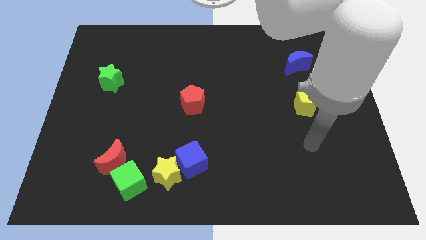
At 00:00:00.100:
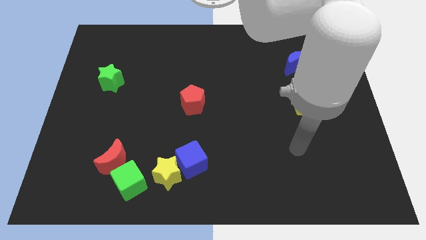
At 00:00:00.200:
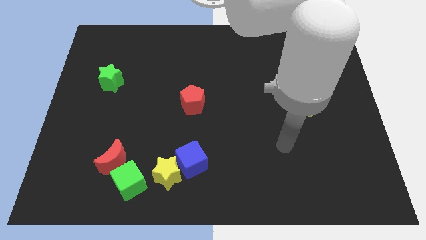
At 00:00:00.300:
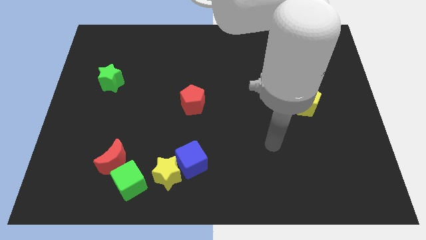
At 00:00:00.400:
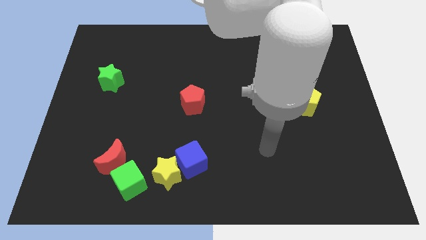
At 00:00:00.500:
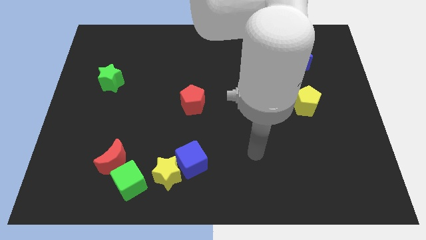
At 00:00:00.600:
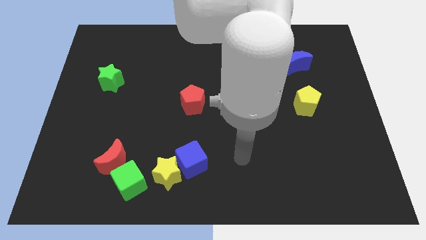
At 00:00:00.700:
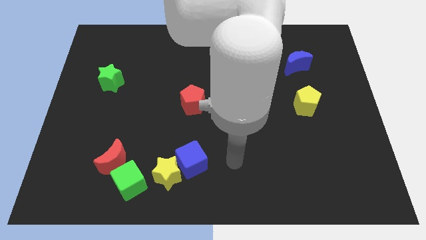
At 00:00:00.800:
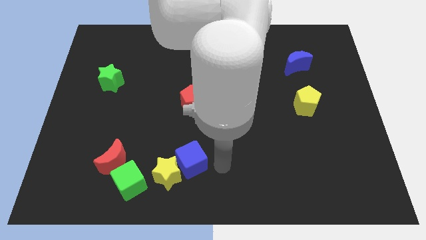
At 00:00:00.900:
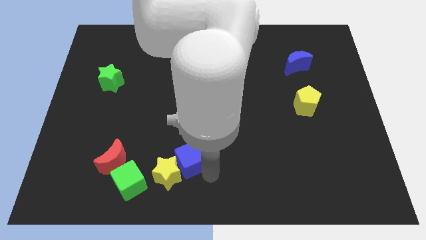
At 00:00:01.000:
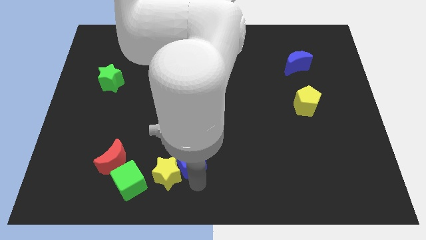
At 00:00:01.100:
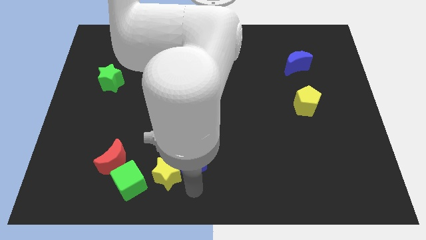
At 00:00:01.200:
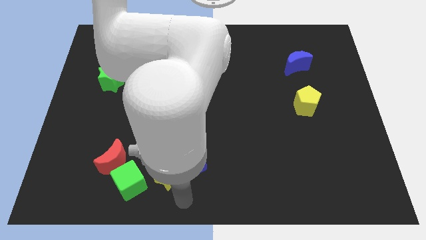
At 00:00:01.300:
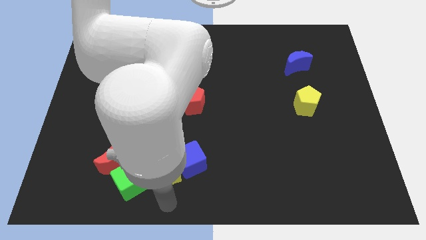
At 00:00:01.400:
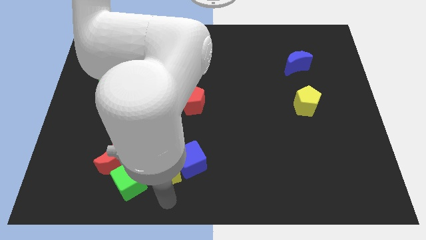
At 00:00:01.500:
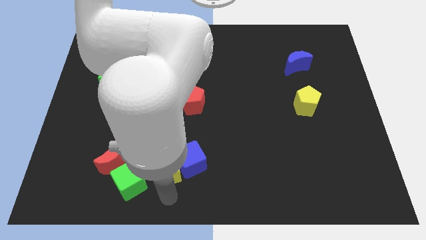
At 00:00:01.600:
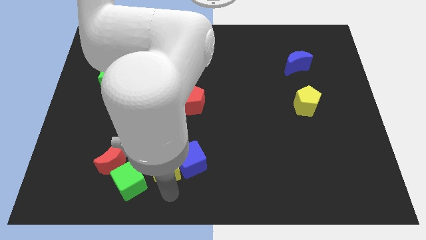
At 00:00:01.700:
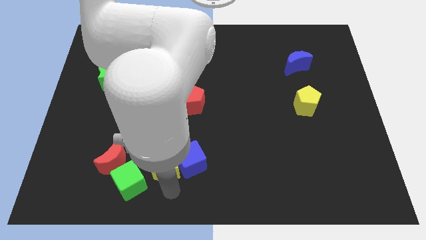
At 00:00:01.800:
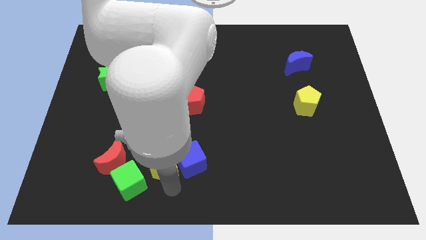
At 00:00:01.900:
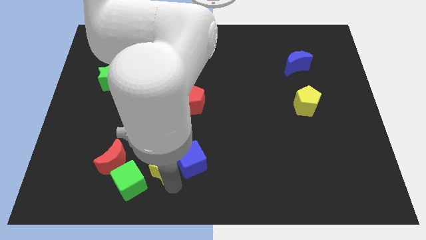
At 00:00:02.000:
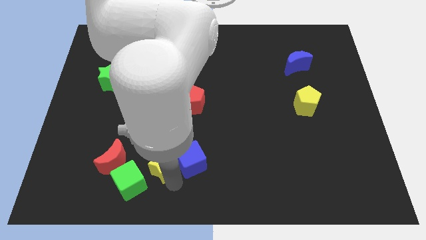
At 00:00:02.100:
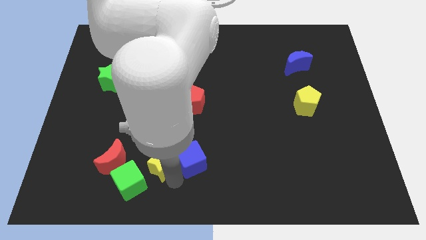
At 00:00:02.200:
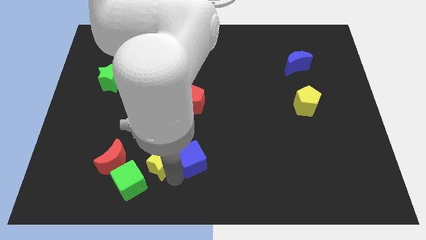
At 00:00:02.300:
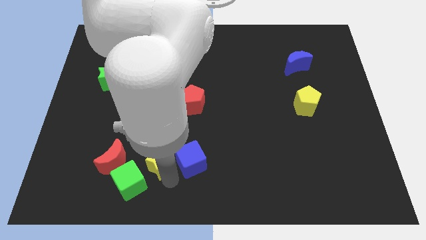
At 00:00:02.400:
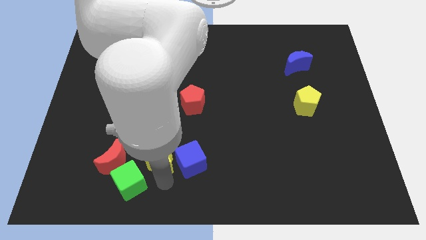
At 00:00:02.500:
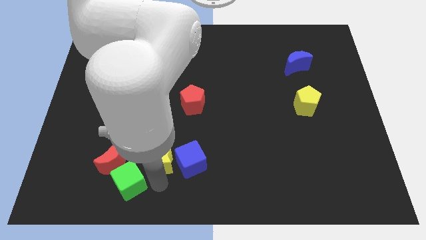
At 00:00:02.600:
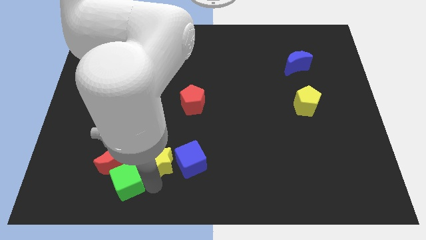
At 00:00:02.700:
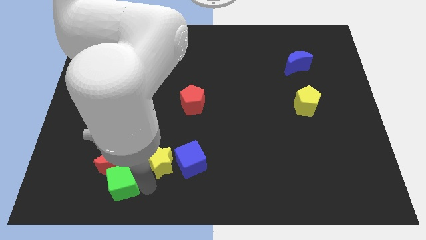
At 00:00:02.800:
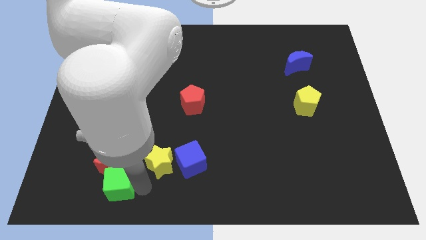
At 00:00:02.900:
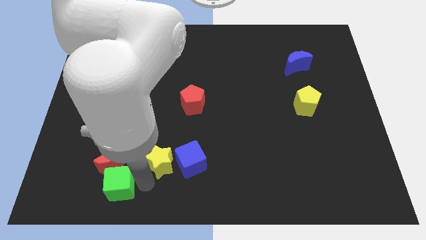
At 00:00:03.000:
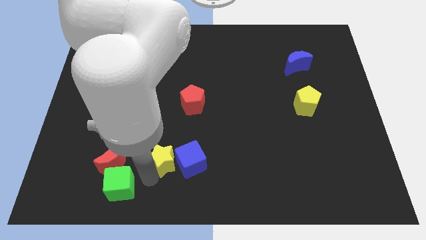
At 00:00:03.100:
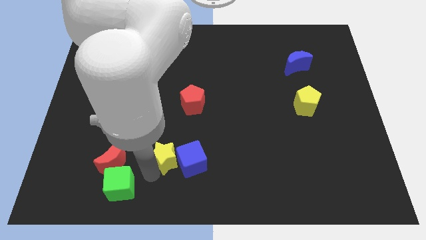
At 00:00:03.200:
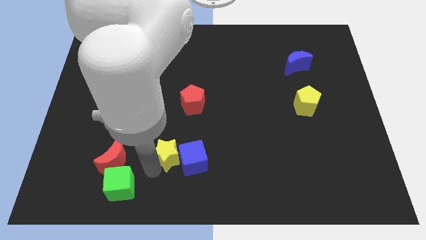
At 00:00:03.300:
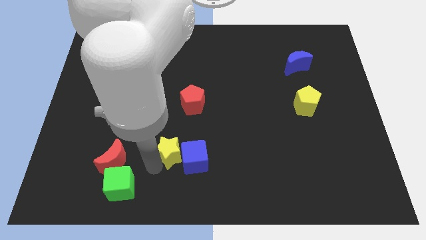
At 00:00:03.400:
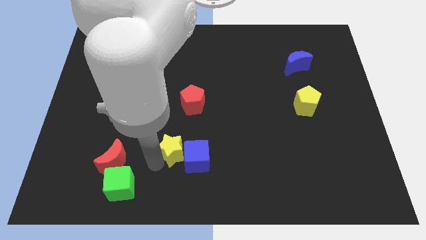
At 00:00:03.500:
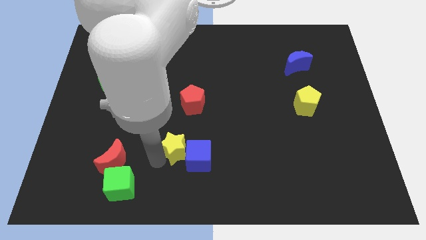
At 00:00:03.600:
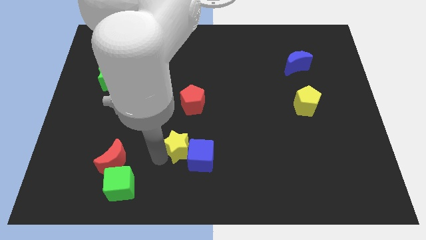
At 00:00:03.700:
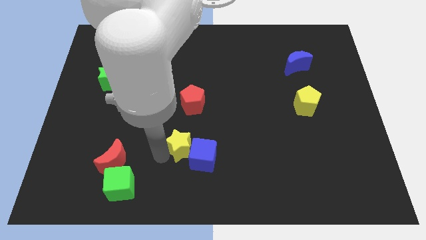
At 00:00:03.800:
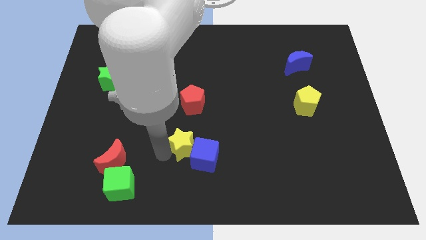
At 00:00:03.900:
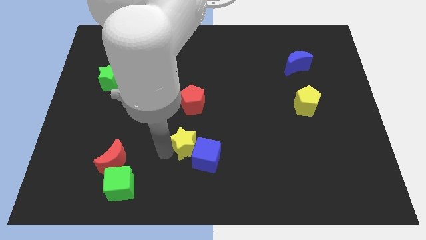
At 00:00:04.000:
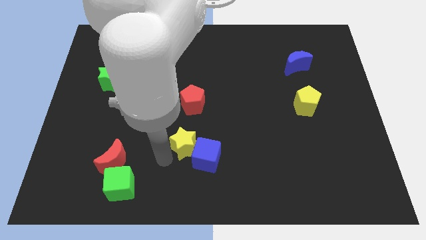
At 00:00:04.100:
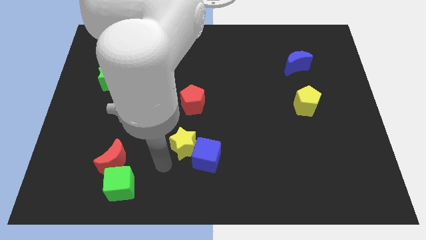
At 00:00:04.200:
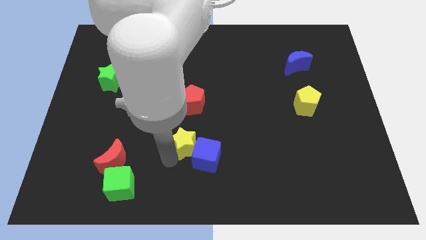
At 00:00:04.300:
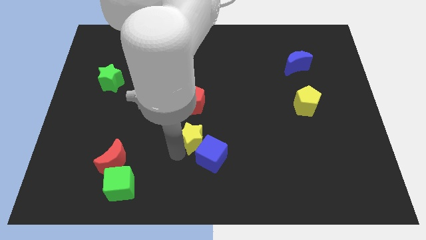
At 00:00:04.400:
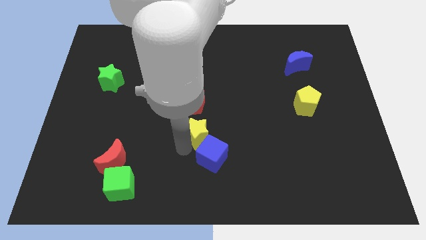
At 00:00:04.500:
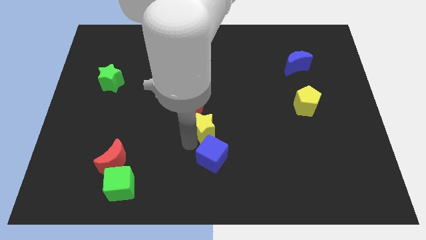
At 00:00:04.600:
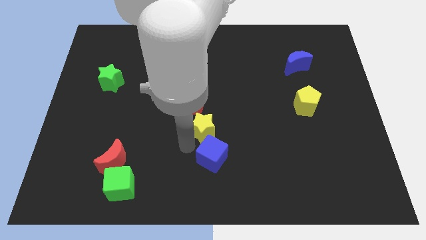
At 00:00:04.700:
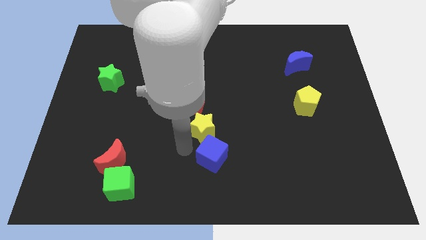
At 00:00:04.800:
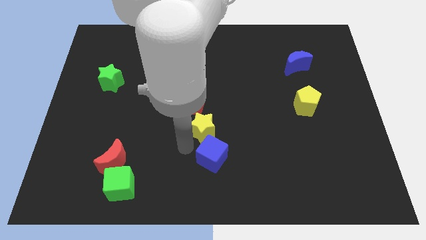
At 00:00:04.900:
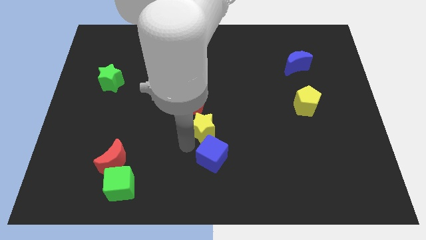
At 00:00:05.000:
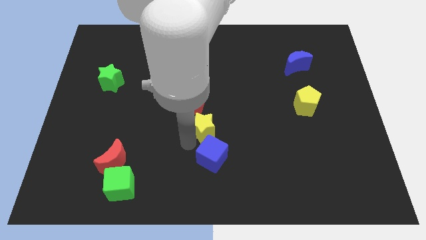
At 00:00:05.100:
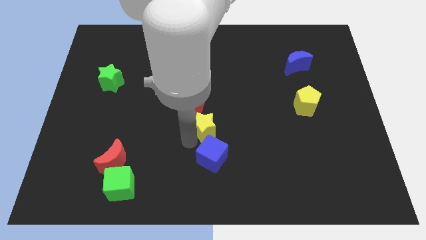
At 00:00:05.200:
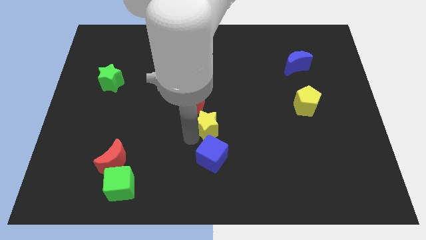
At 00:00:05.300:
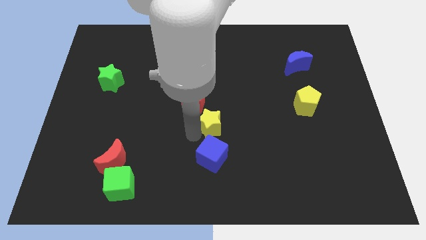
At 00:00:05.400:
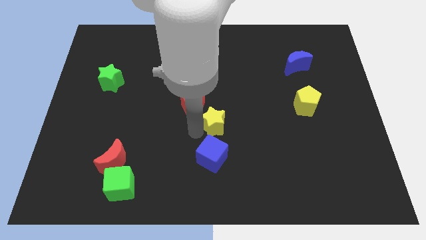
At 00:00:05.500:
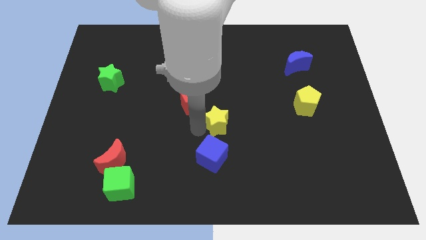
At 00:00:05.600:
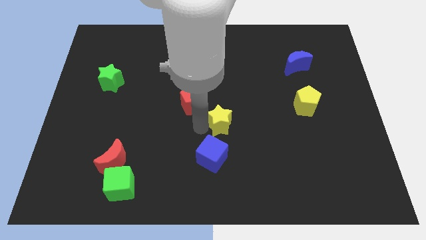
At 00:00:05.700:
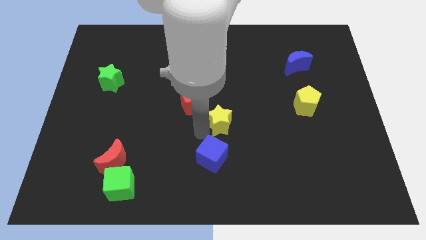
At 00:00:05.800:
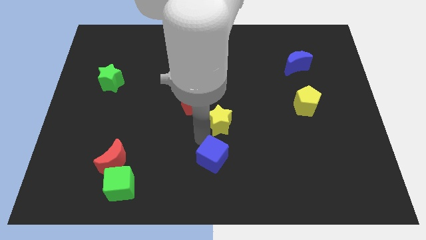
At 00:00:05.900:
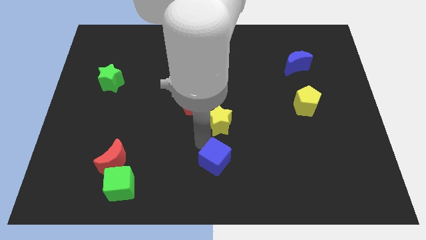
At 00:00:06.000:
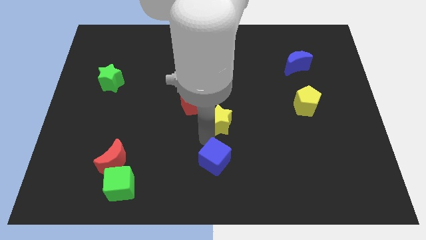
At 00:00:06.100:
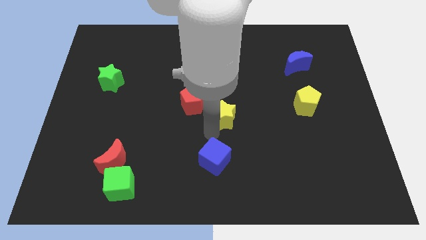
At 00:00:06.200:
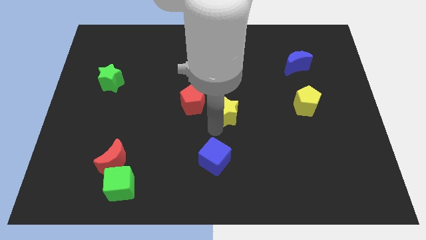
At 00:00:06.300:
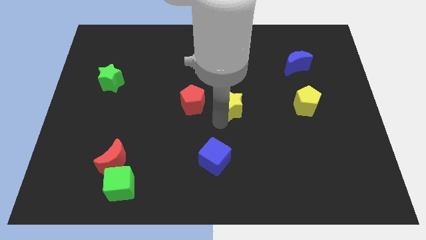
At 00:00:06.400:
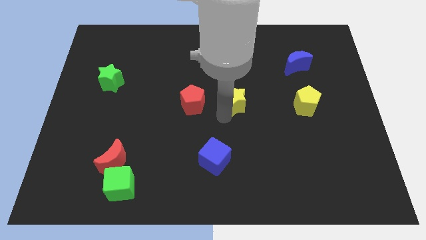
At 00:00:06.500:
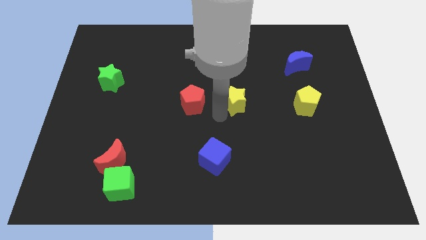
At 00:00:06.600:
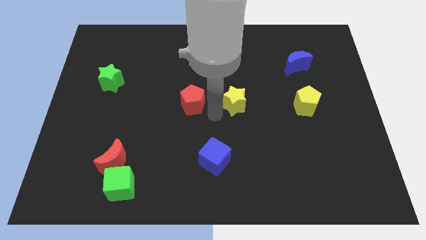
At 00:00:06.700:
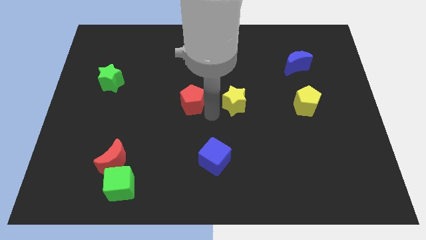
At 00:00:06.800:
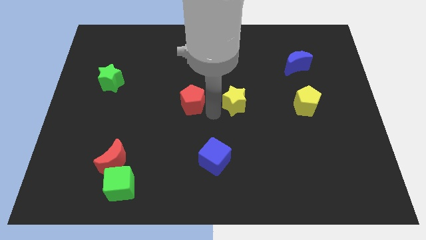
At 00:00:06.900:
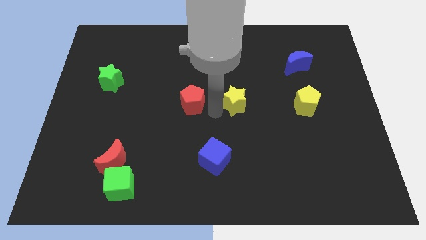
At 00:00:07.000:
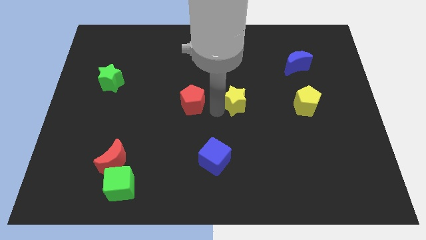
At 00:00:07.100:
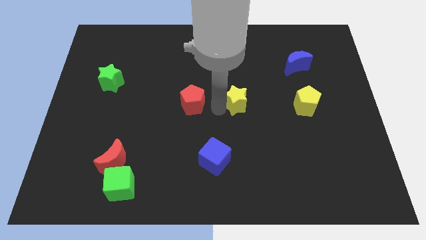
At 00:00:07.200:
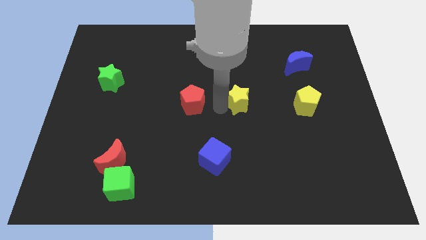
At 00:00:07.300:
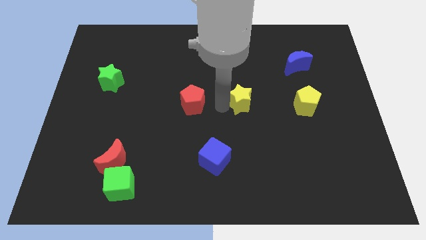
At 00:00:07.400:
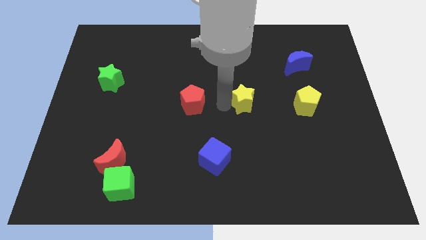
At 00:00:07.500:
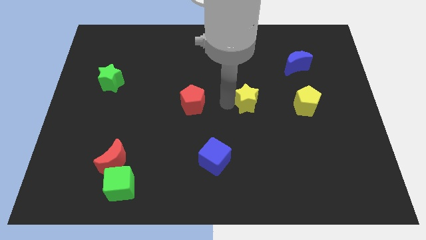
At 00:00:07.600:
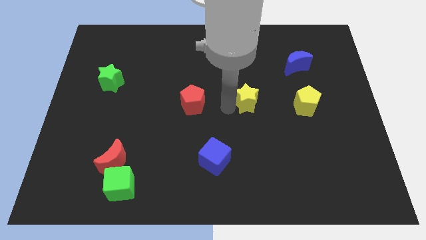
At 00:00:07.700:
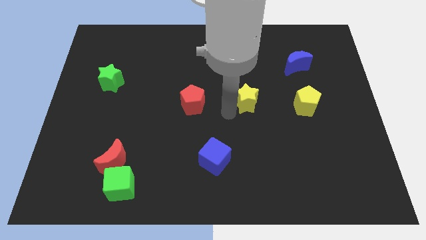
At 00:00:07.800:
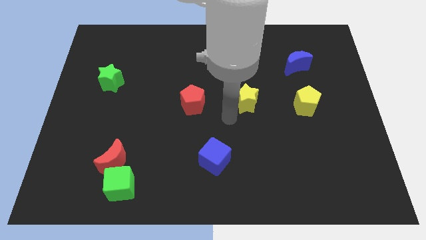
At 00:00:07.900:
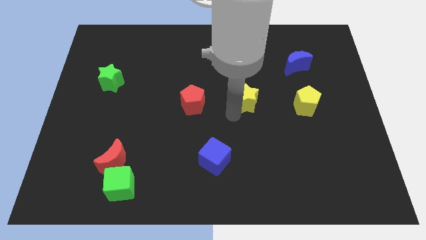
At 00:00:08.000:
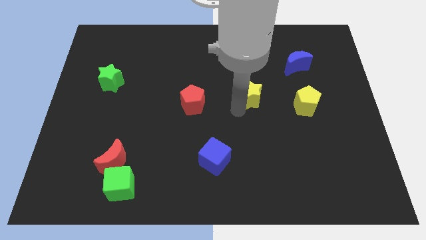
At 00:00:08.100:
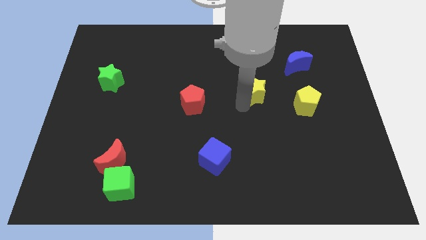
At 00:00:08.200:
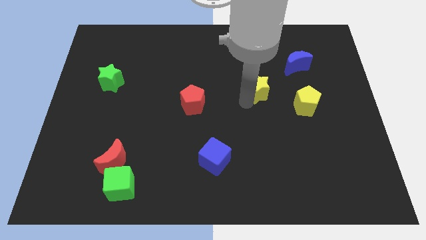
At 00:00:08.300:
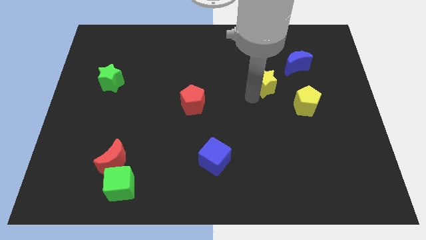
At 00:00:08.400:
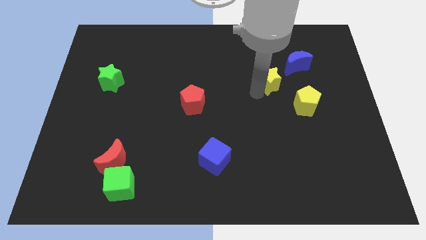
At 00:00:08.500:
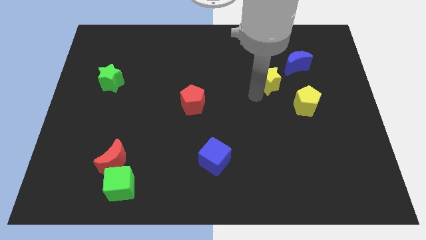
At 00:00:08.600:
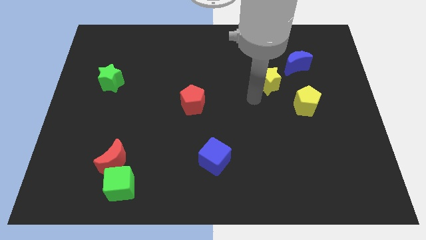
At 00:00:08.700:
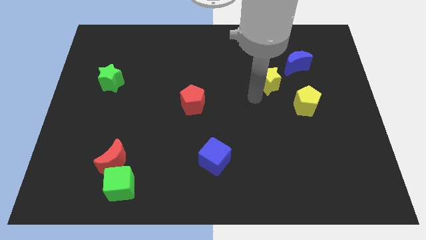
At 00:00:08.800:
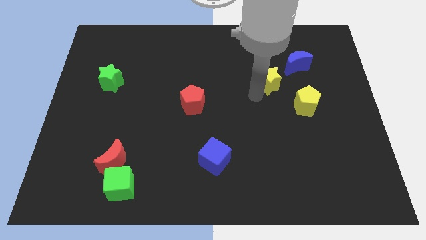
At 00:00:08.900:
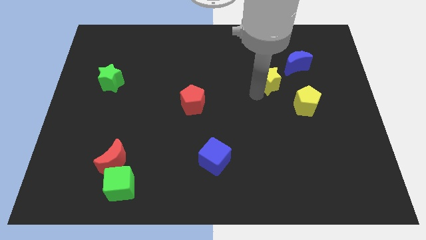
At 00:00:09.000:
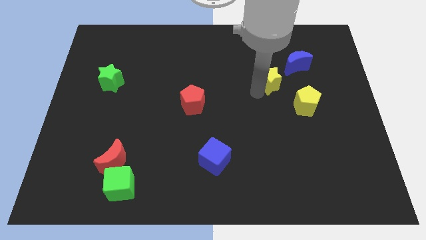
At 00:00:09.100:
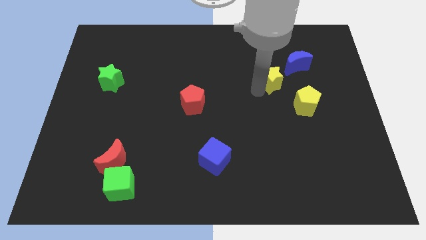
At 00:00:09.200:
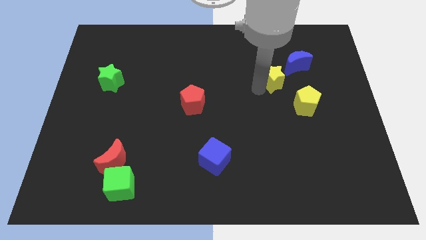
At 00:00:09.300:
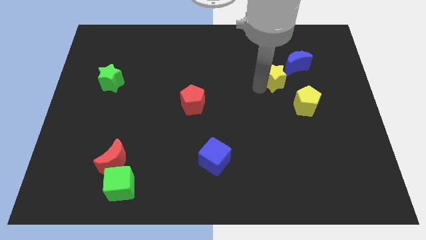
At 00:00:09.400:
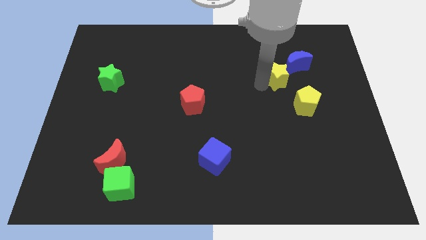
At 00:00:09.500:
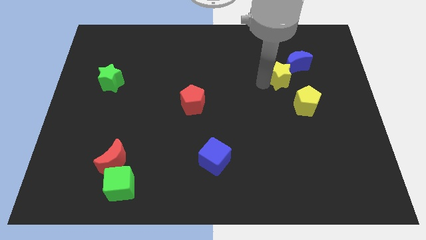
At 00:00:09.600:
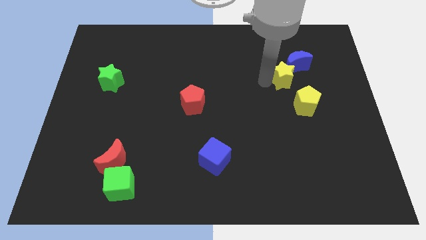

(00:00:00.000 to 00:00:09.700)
put the yellow star towards the blue moon
